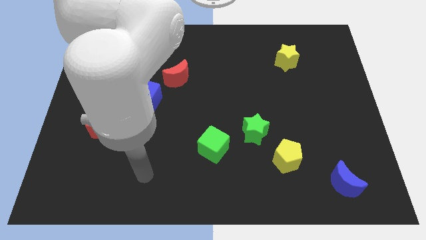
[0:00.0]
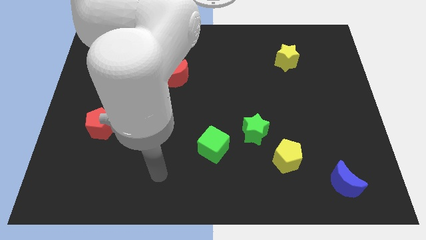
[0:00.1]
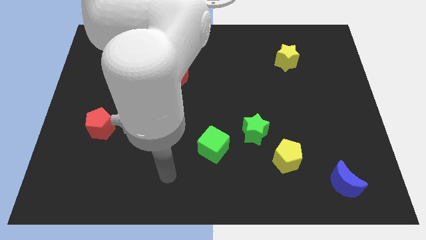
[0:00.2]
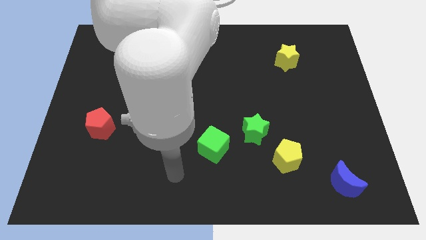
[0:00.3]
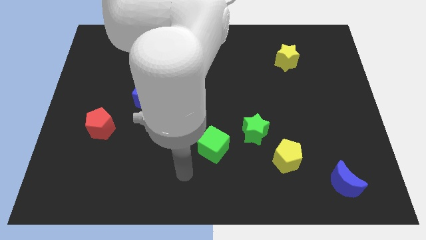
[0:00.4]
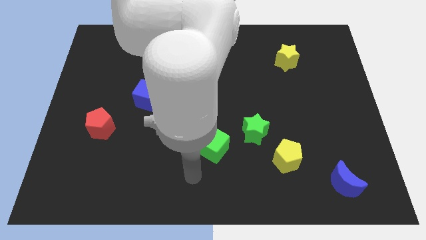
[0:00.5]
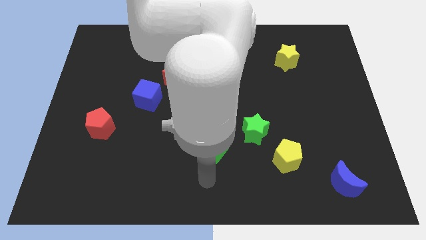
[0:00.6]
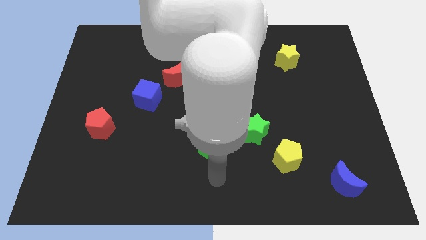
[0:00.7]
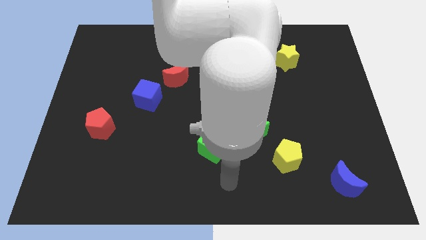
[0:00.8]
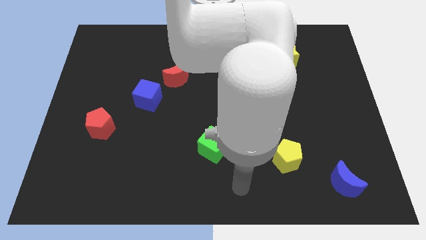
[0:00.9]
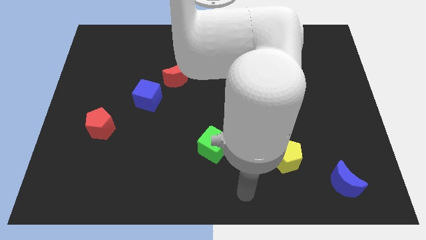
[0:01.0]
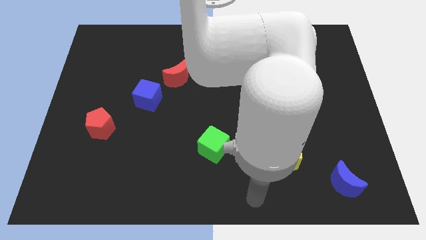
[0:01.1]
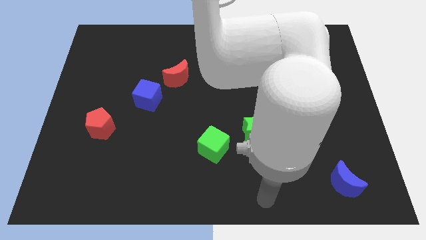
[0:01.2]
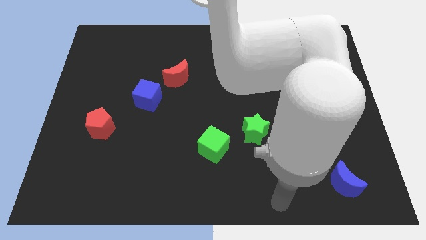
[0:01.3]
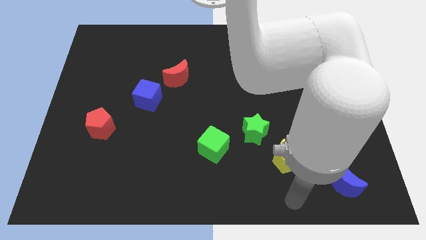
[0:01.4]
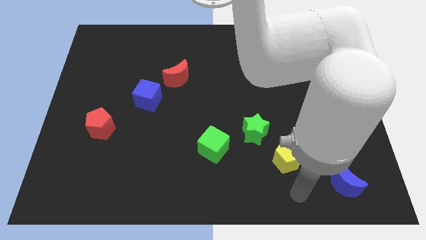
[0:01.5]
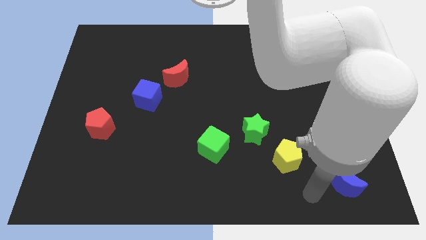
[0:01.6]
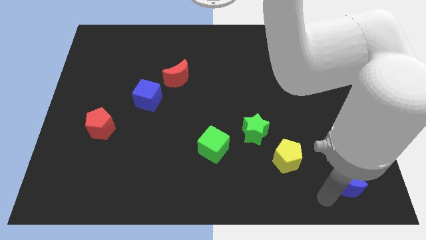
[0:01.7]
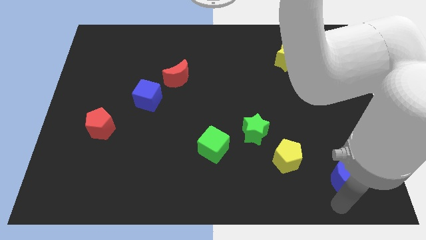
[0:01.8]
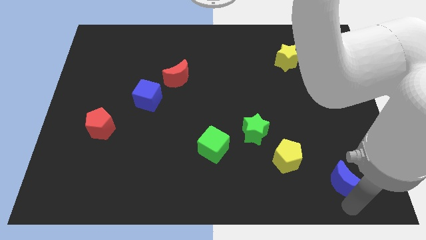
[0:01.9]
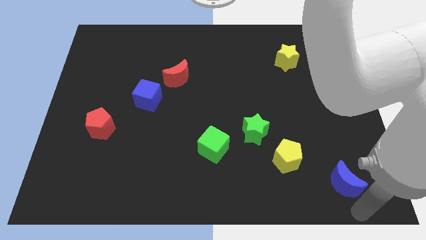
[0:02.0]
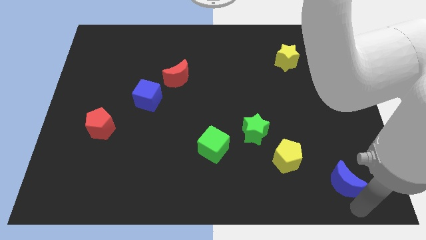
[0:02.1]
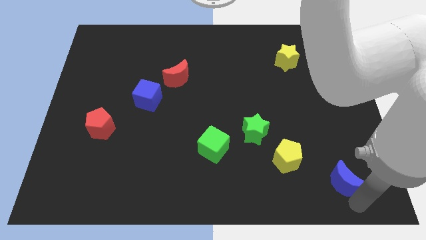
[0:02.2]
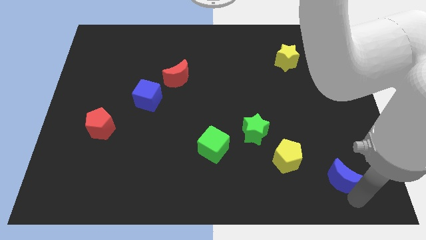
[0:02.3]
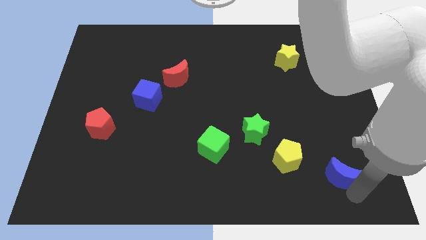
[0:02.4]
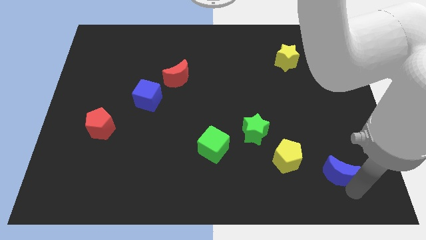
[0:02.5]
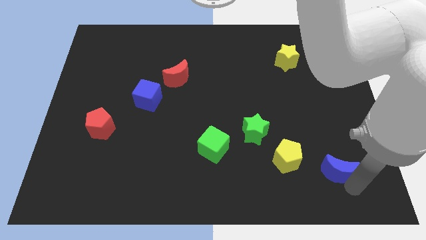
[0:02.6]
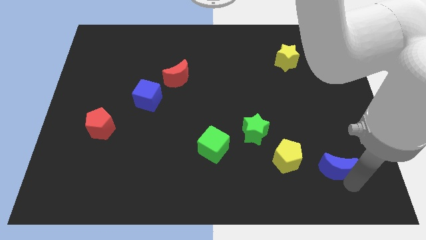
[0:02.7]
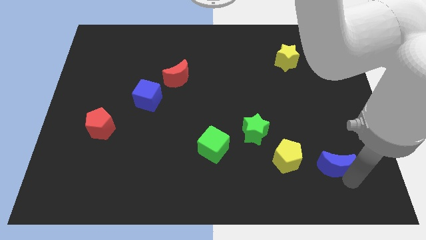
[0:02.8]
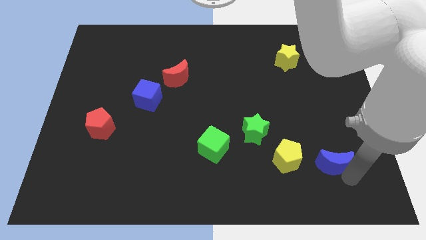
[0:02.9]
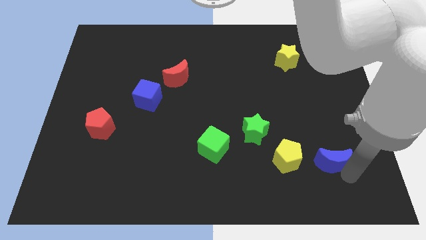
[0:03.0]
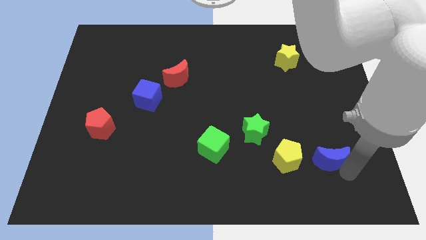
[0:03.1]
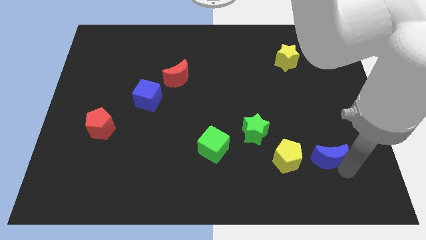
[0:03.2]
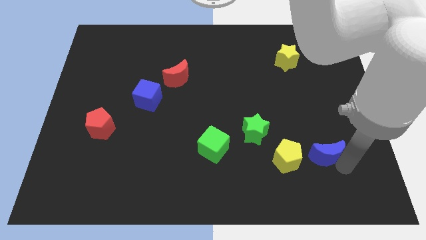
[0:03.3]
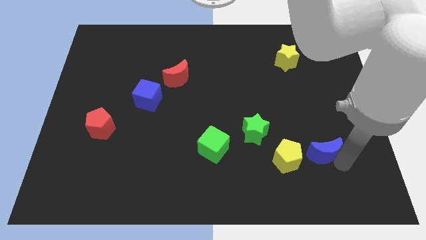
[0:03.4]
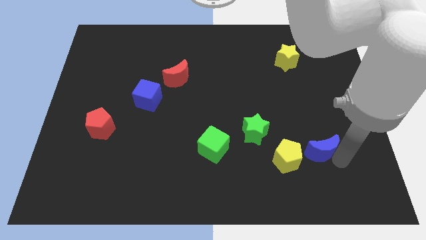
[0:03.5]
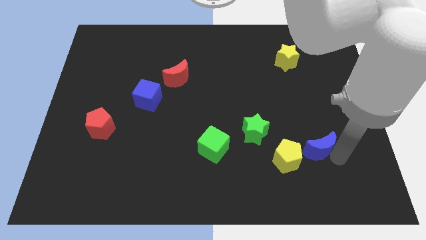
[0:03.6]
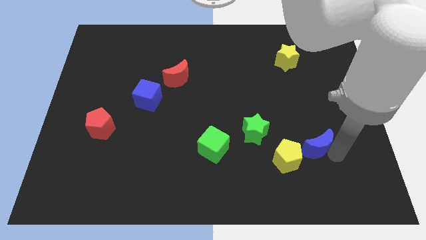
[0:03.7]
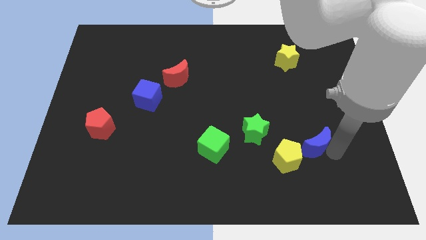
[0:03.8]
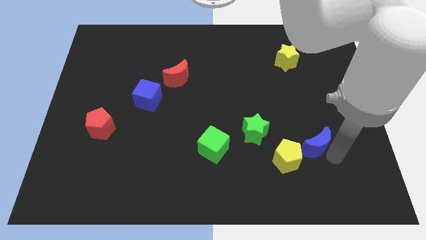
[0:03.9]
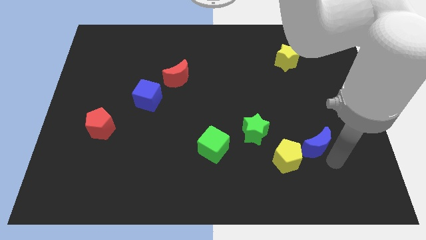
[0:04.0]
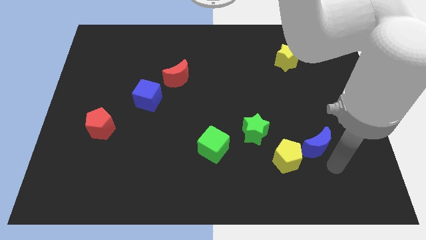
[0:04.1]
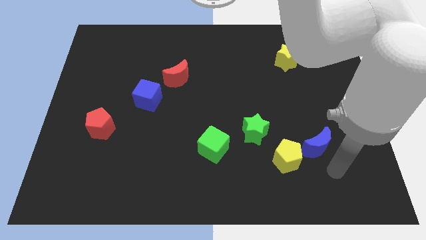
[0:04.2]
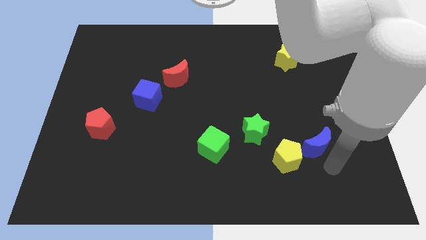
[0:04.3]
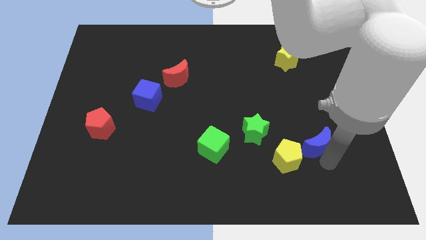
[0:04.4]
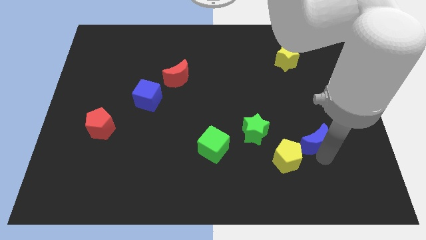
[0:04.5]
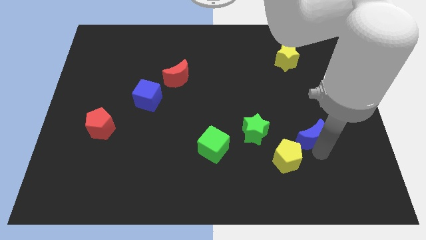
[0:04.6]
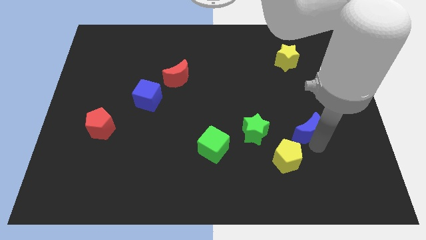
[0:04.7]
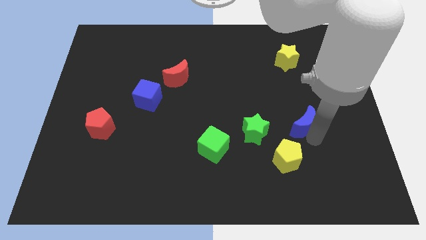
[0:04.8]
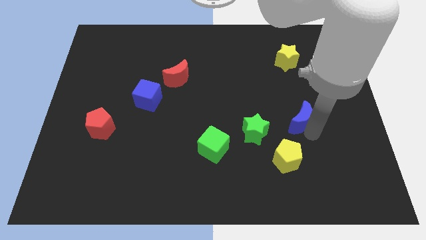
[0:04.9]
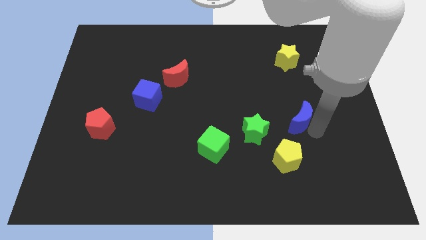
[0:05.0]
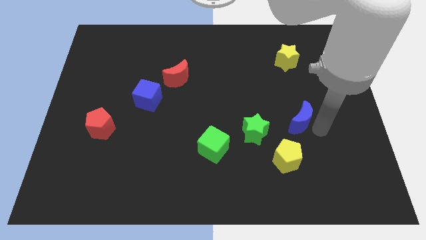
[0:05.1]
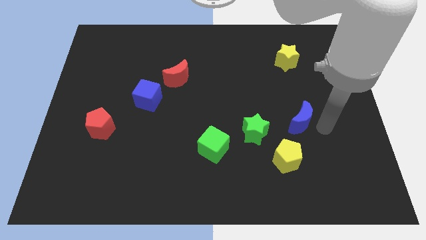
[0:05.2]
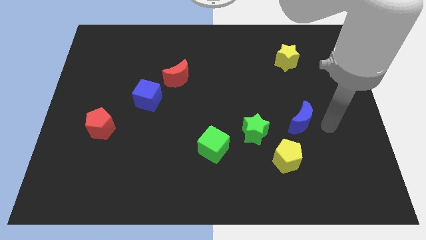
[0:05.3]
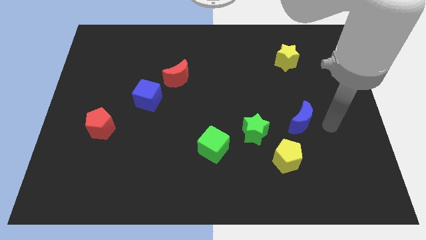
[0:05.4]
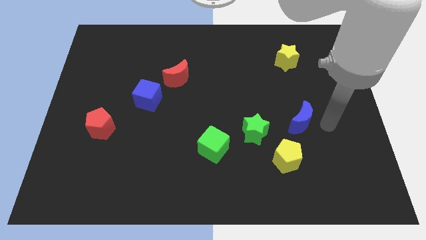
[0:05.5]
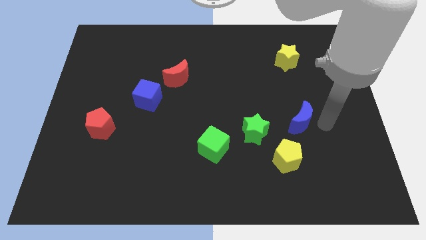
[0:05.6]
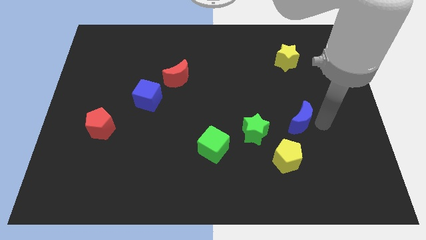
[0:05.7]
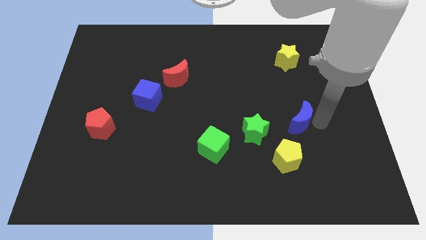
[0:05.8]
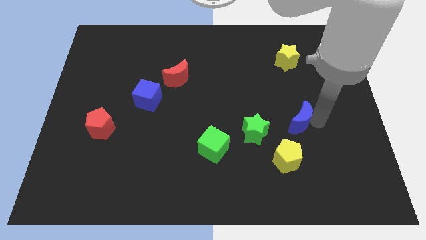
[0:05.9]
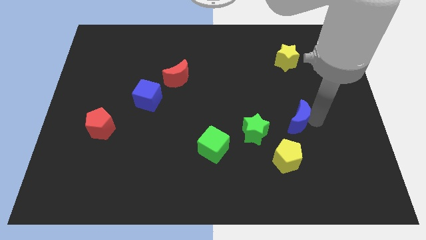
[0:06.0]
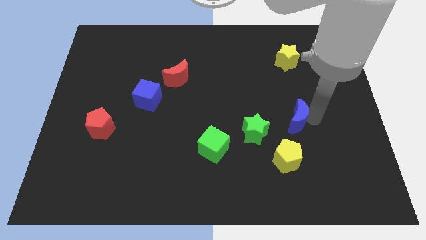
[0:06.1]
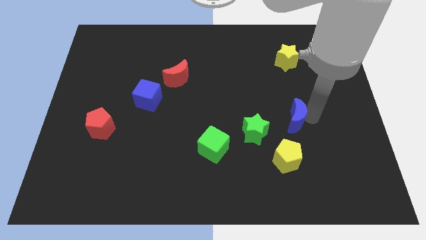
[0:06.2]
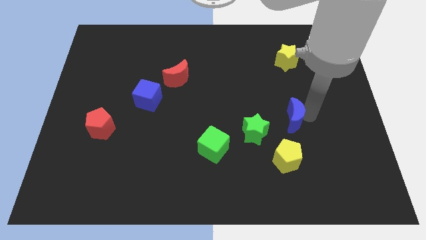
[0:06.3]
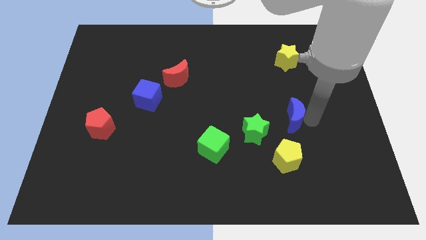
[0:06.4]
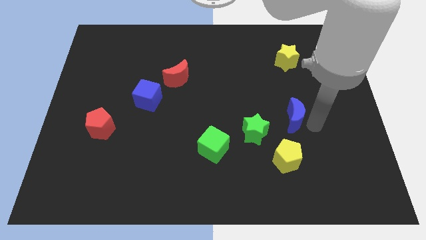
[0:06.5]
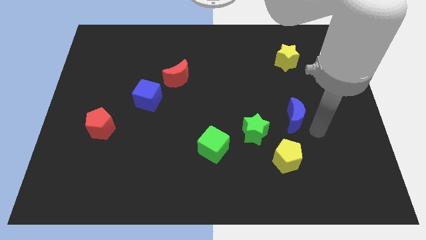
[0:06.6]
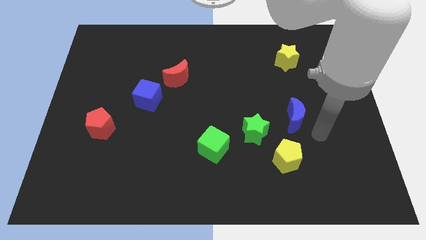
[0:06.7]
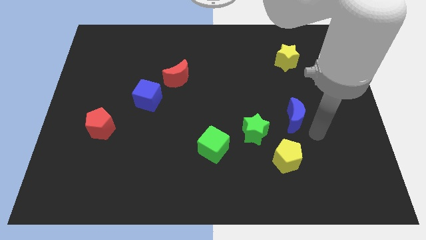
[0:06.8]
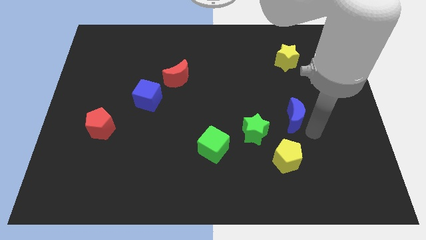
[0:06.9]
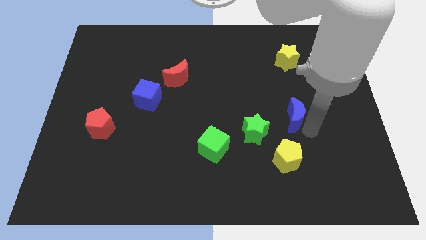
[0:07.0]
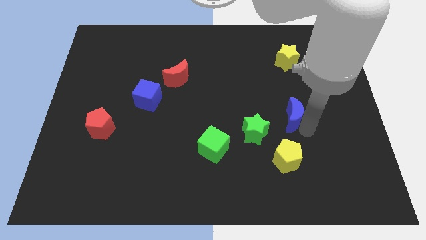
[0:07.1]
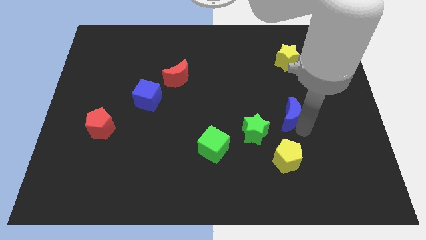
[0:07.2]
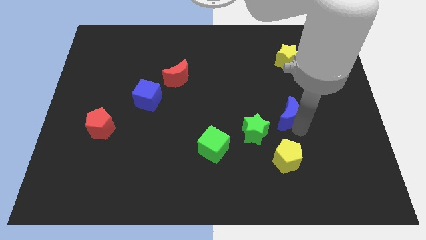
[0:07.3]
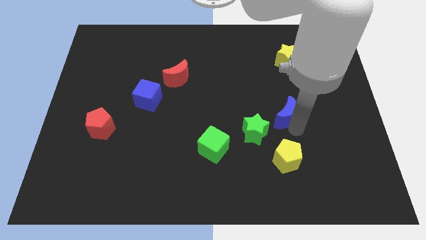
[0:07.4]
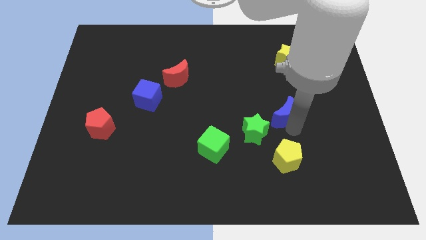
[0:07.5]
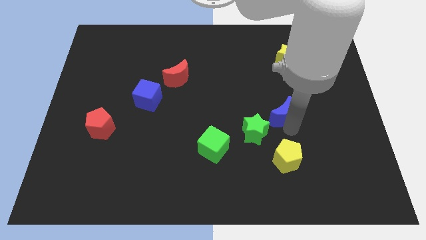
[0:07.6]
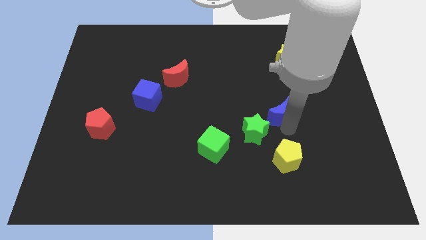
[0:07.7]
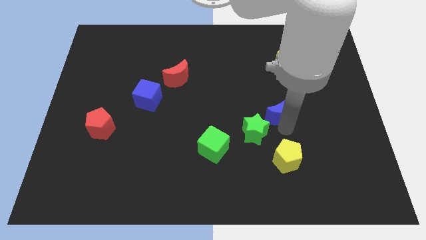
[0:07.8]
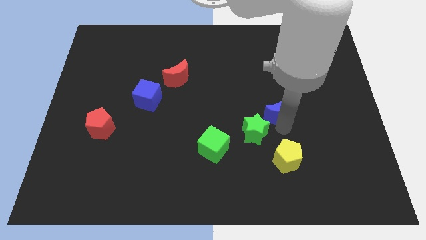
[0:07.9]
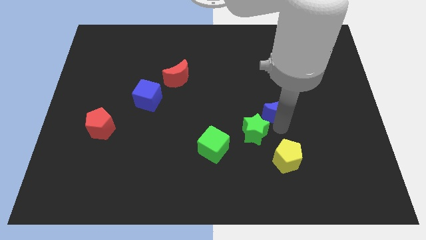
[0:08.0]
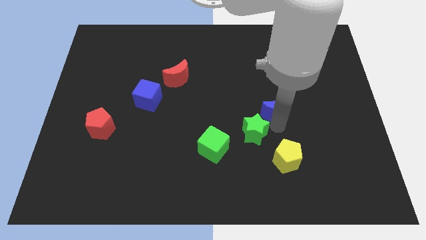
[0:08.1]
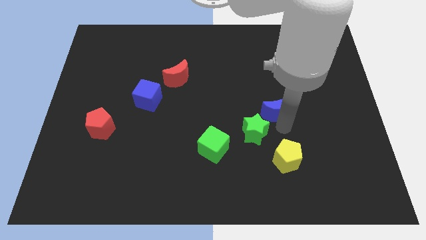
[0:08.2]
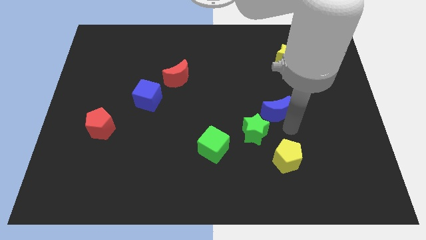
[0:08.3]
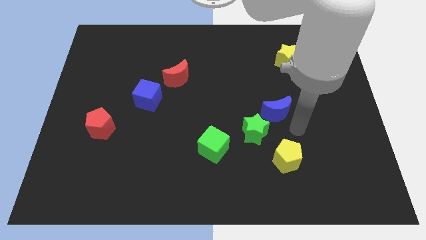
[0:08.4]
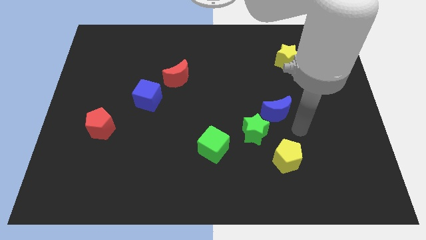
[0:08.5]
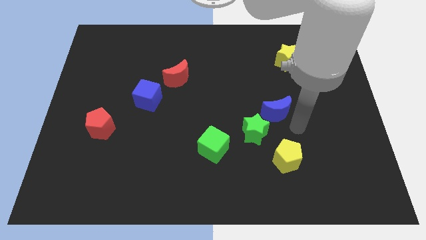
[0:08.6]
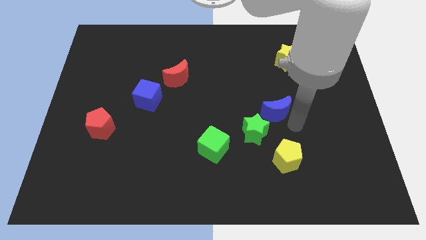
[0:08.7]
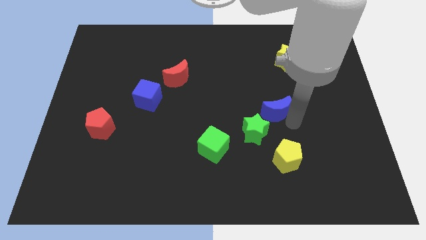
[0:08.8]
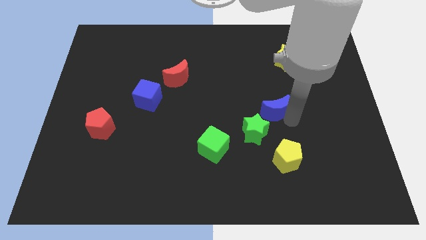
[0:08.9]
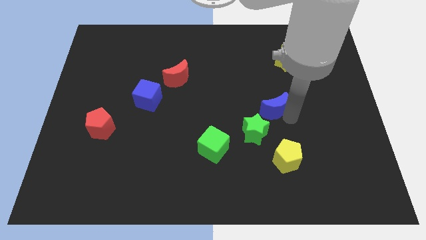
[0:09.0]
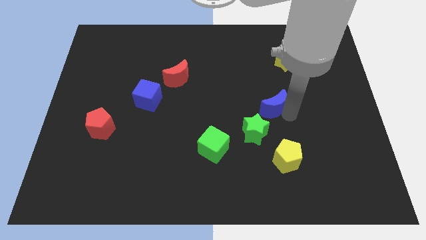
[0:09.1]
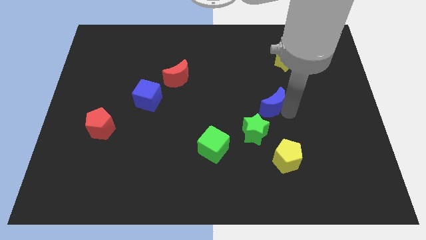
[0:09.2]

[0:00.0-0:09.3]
move the blue moon to the top side of the green star
